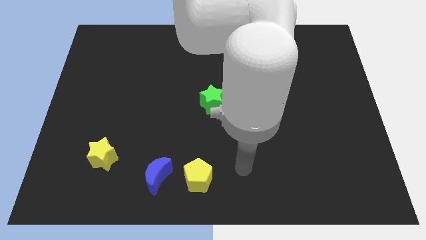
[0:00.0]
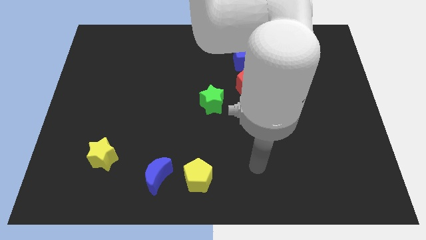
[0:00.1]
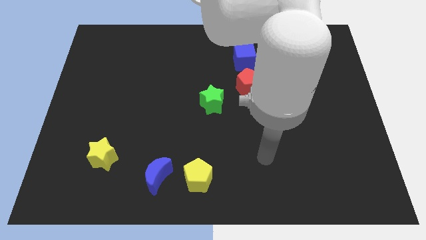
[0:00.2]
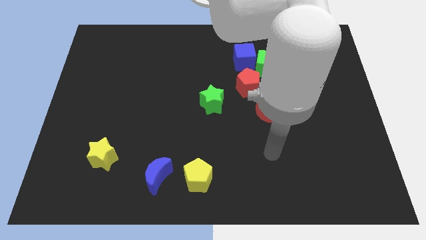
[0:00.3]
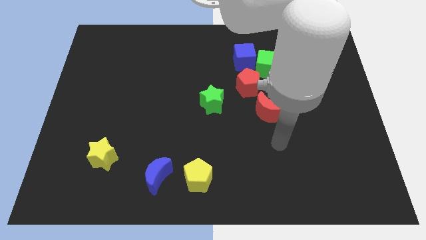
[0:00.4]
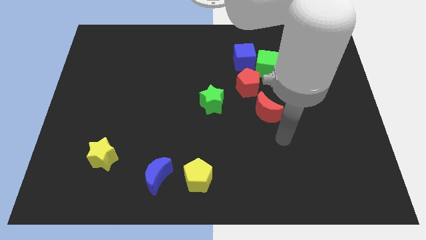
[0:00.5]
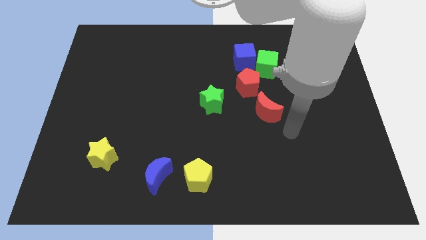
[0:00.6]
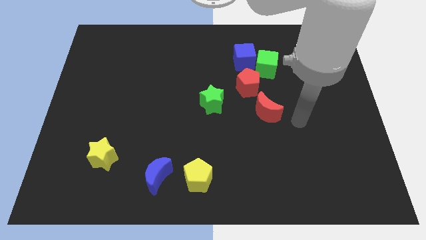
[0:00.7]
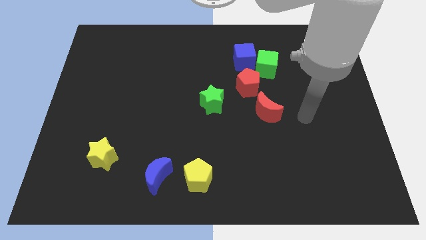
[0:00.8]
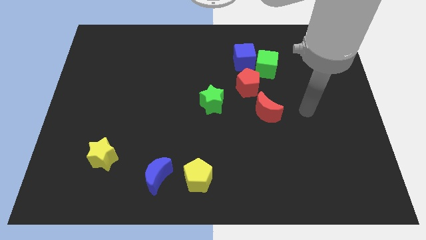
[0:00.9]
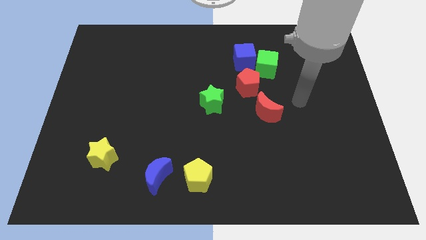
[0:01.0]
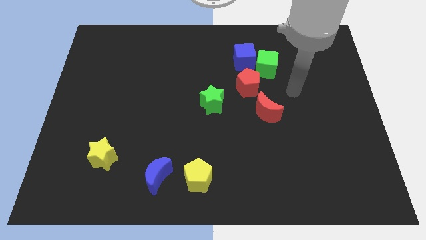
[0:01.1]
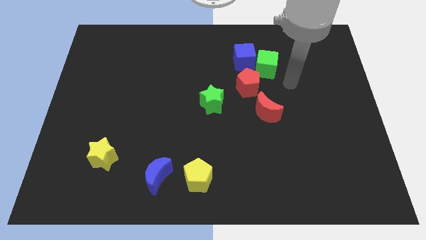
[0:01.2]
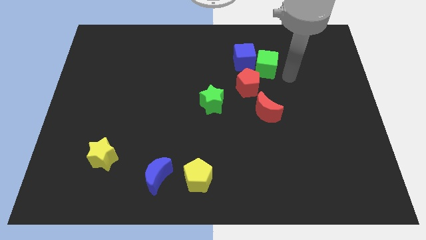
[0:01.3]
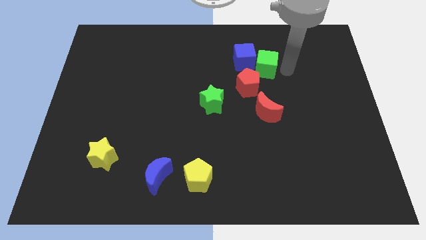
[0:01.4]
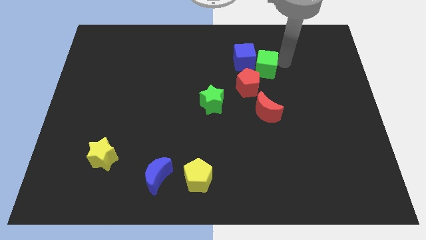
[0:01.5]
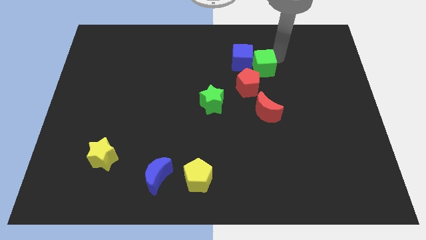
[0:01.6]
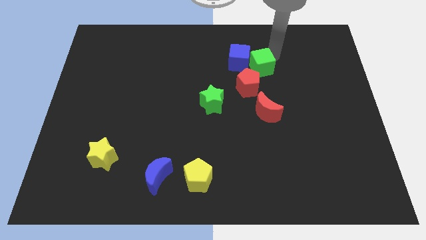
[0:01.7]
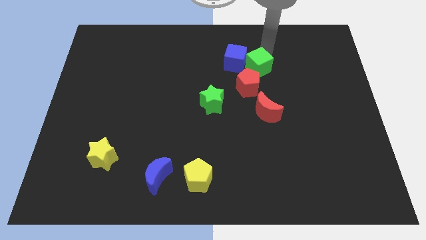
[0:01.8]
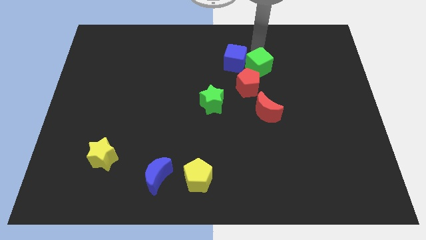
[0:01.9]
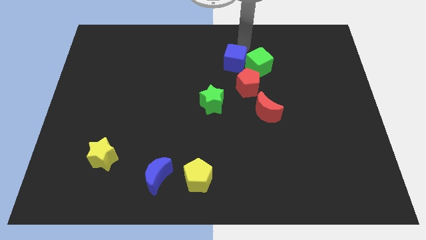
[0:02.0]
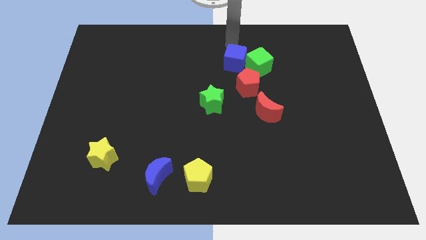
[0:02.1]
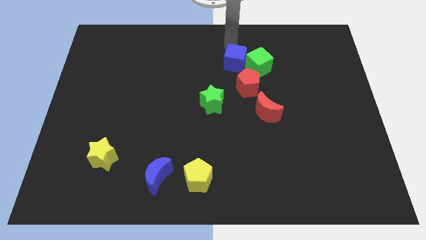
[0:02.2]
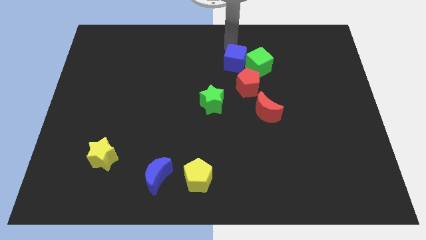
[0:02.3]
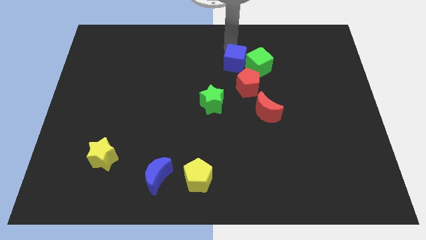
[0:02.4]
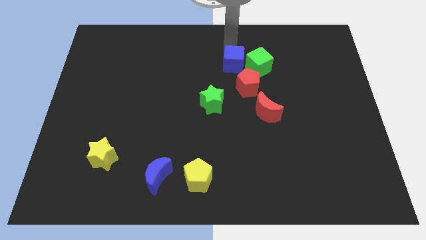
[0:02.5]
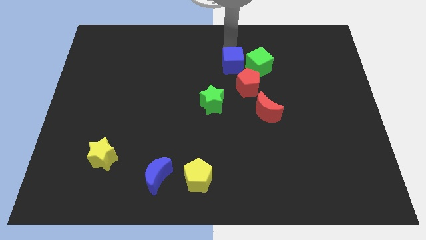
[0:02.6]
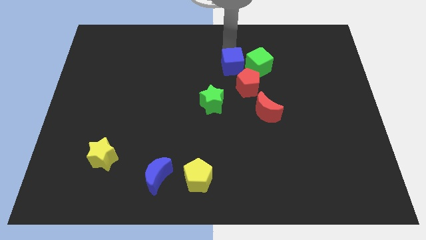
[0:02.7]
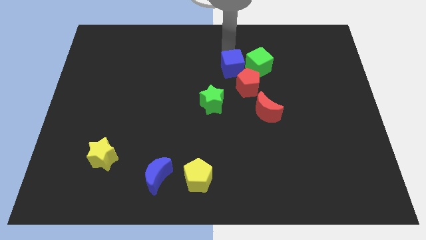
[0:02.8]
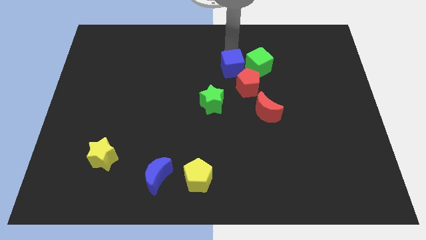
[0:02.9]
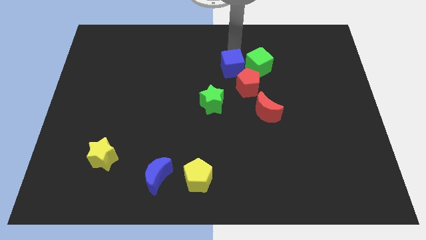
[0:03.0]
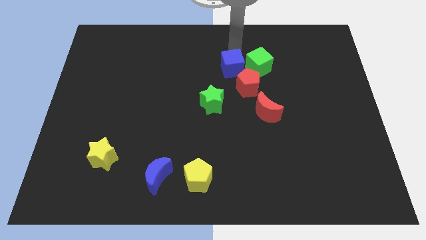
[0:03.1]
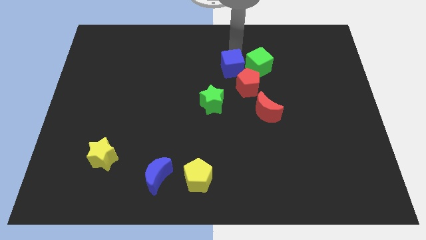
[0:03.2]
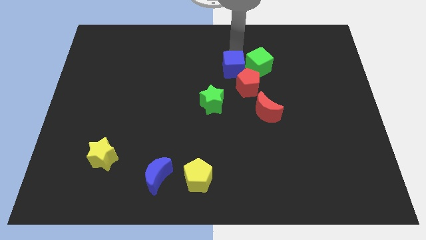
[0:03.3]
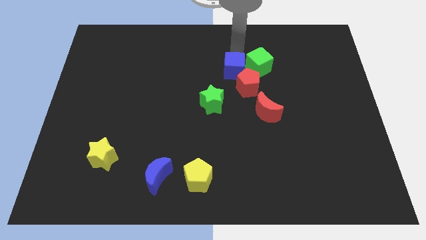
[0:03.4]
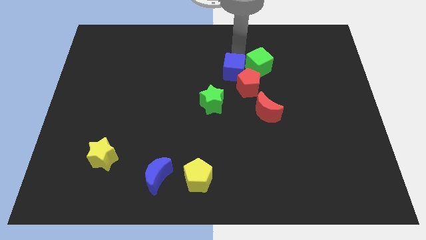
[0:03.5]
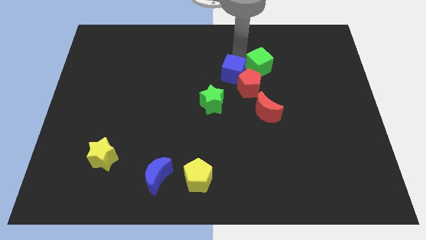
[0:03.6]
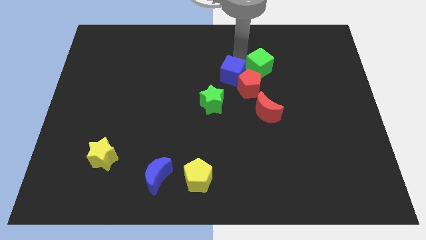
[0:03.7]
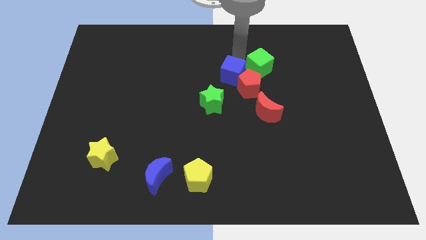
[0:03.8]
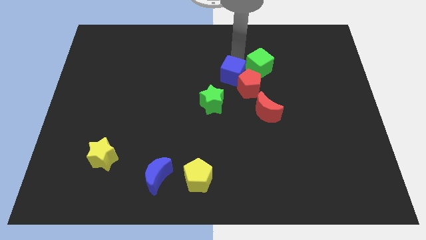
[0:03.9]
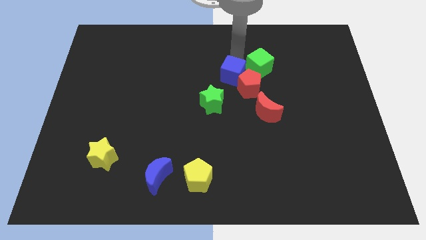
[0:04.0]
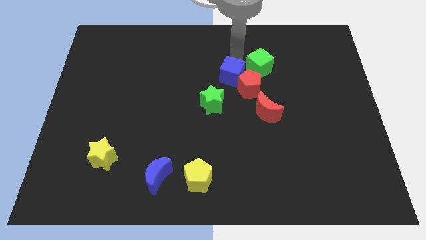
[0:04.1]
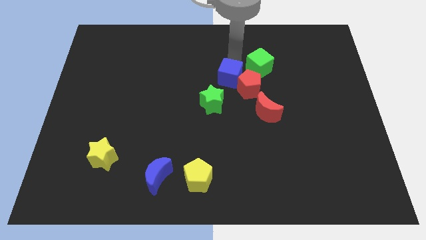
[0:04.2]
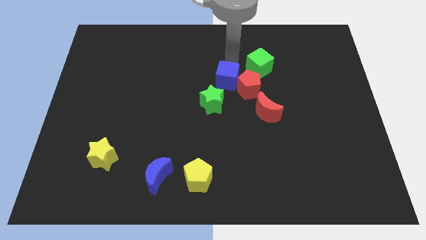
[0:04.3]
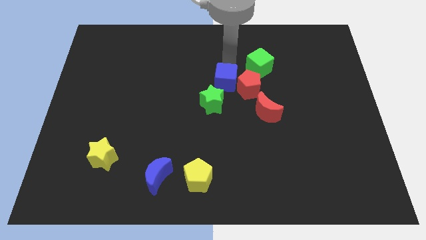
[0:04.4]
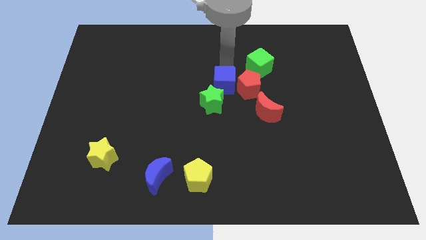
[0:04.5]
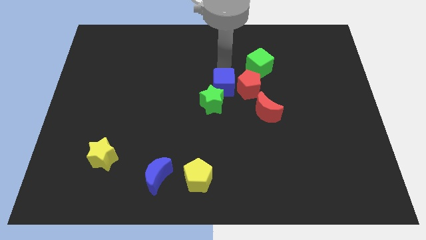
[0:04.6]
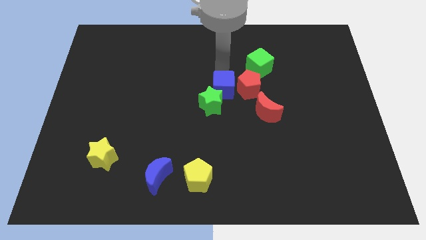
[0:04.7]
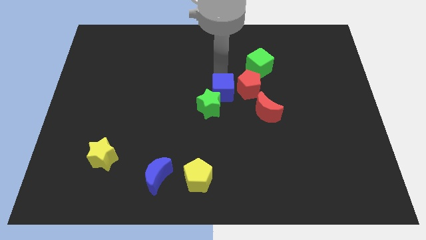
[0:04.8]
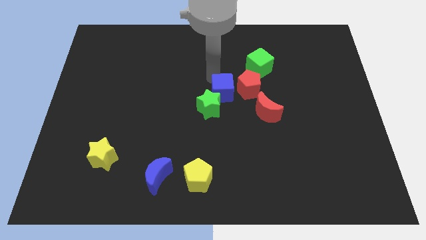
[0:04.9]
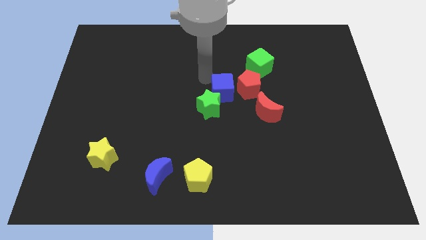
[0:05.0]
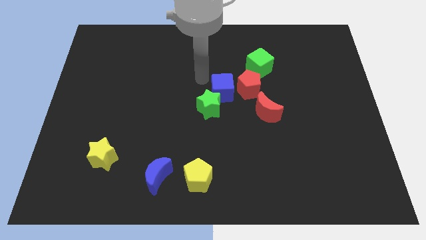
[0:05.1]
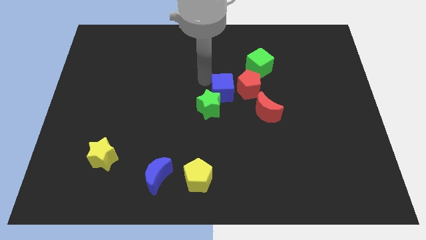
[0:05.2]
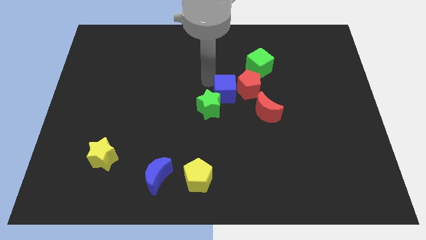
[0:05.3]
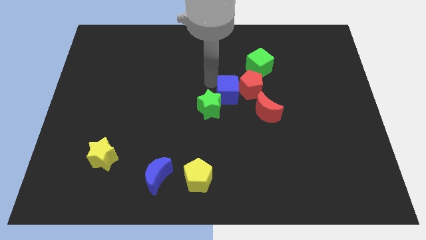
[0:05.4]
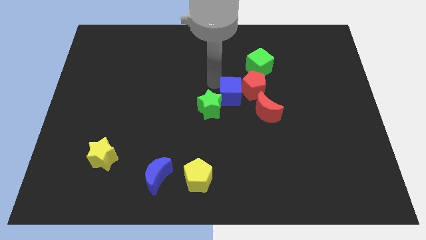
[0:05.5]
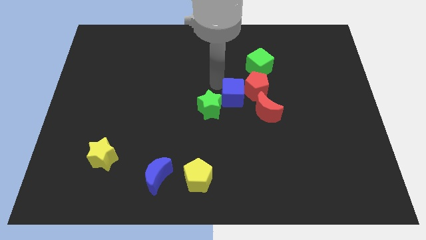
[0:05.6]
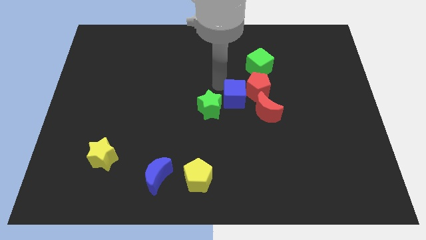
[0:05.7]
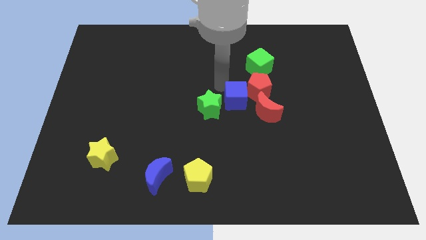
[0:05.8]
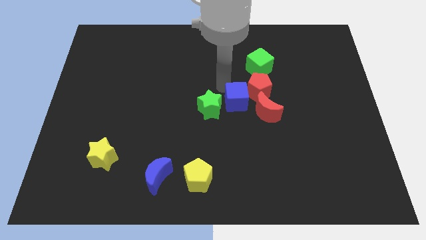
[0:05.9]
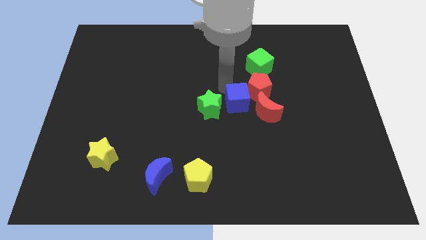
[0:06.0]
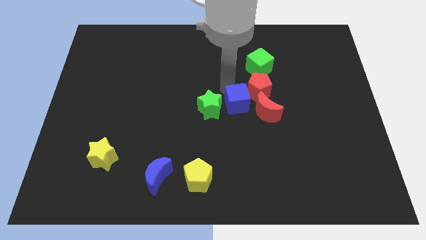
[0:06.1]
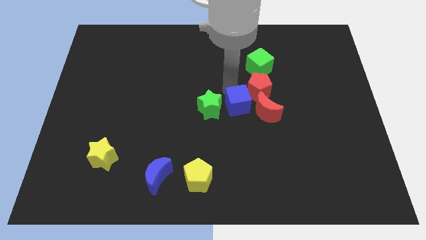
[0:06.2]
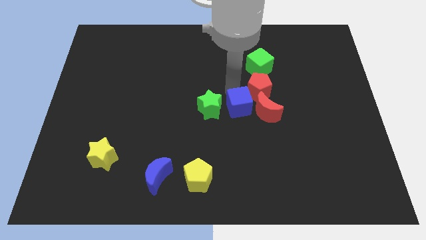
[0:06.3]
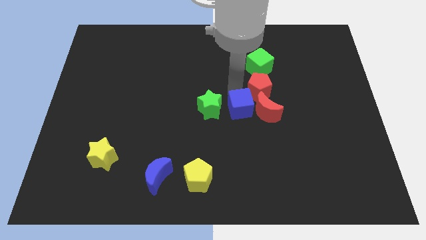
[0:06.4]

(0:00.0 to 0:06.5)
put the blue cube next to the red moon

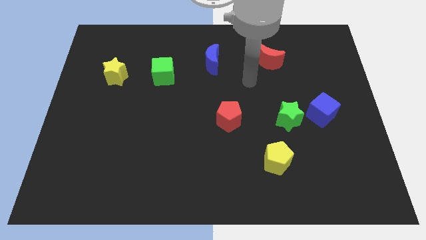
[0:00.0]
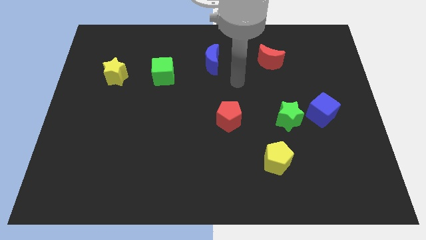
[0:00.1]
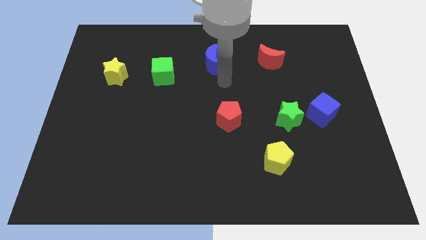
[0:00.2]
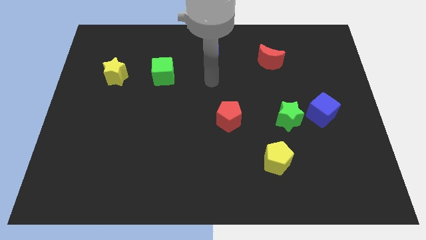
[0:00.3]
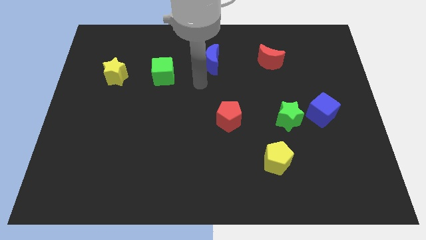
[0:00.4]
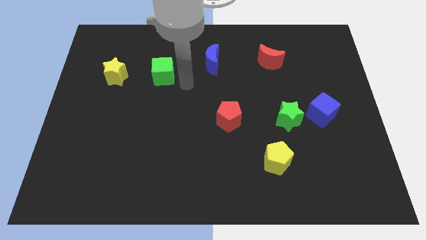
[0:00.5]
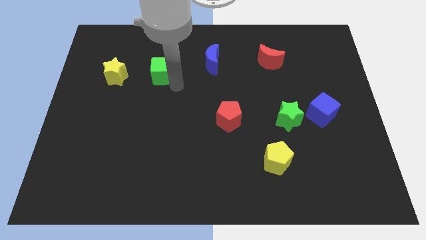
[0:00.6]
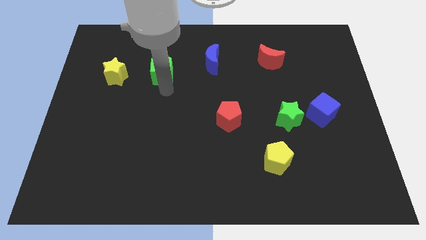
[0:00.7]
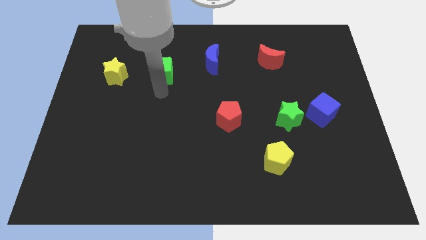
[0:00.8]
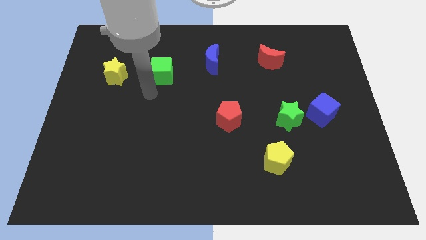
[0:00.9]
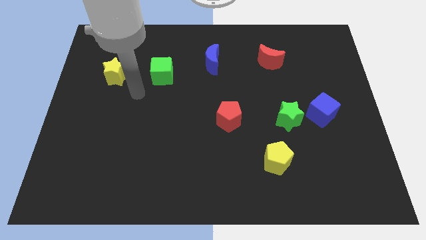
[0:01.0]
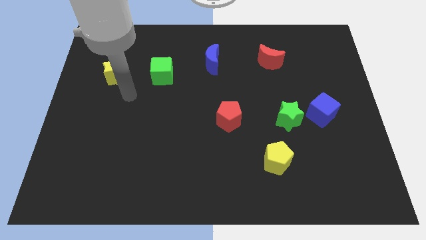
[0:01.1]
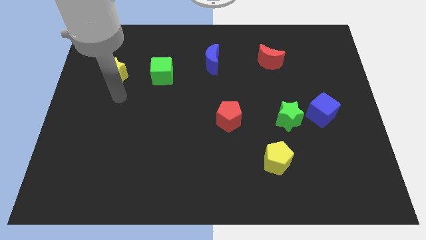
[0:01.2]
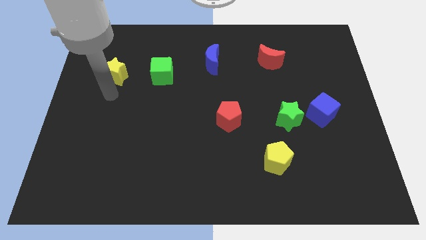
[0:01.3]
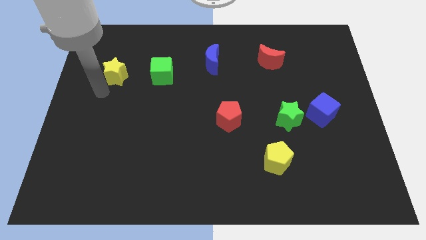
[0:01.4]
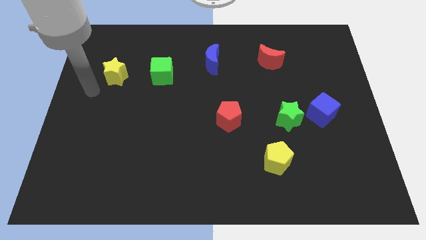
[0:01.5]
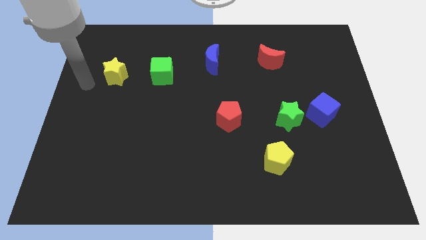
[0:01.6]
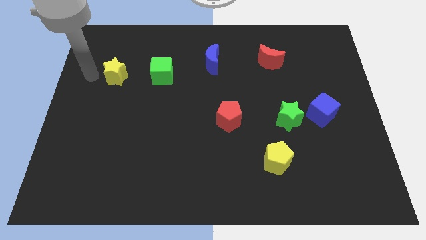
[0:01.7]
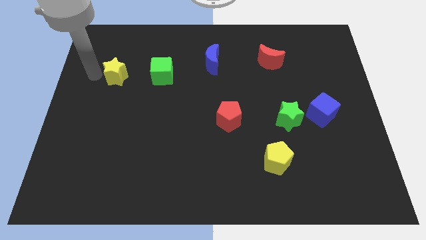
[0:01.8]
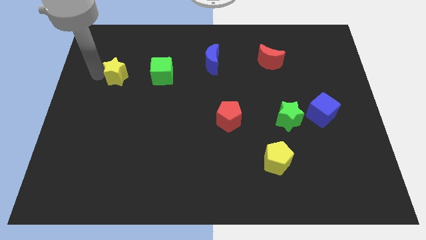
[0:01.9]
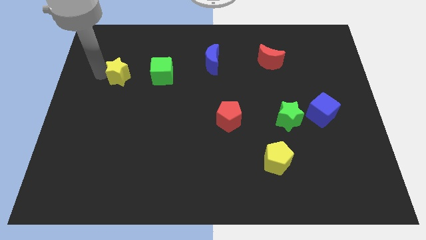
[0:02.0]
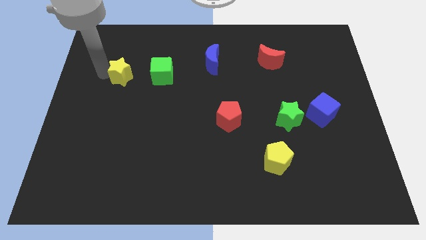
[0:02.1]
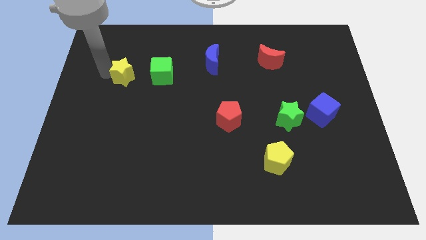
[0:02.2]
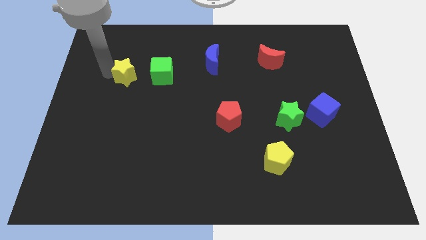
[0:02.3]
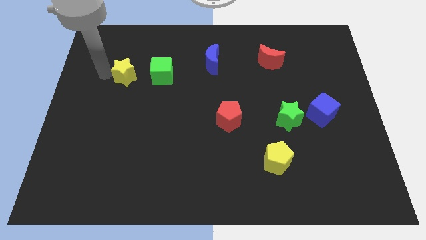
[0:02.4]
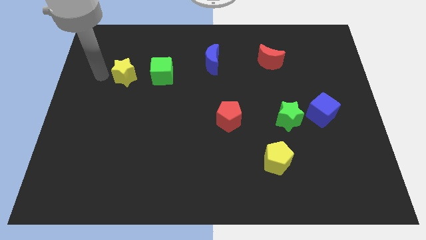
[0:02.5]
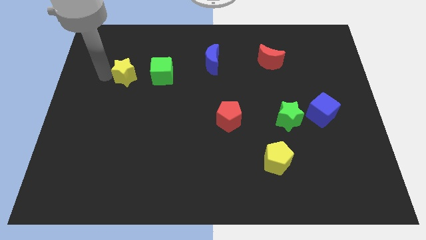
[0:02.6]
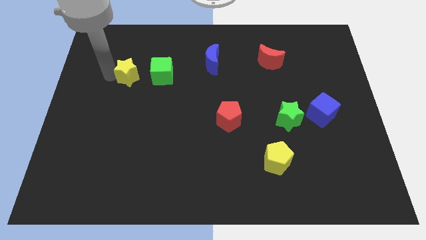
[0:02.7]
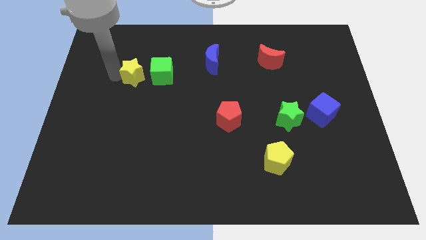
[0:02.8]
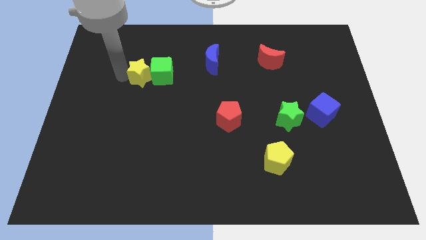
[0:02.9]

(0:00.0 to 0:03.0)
put the yellow star towards the green cube
